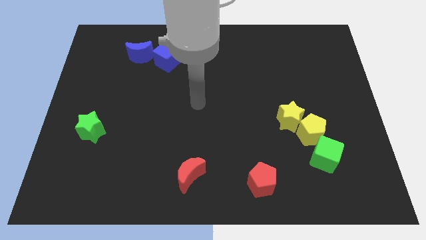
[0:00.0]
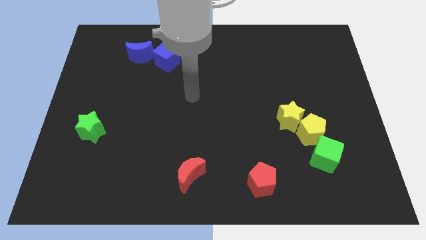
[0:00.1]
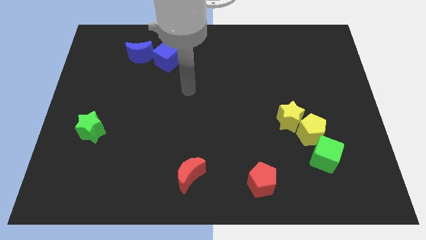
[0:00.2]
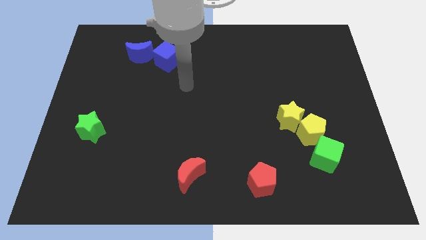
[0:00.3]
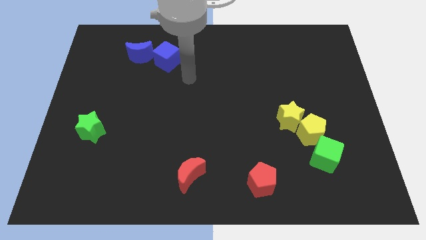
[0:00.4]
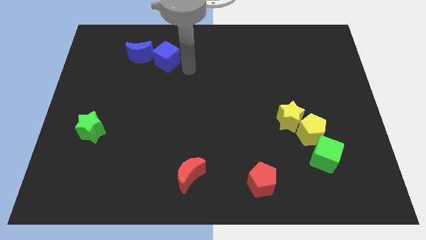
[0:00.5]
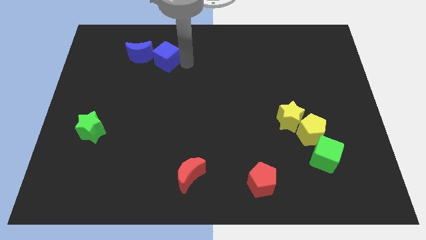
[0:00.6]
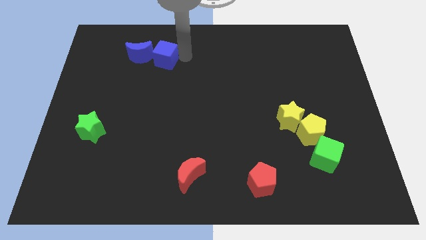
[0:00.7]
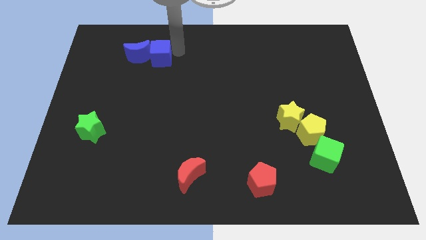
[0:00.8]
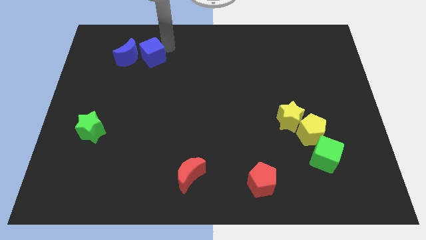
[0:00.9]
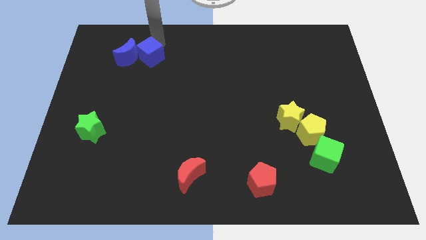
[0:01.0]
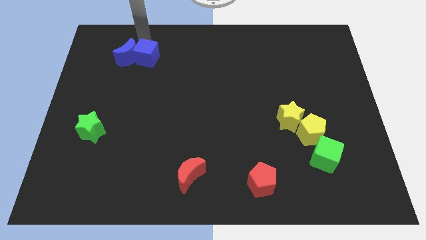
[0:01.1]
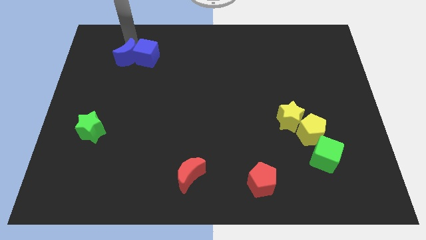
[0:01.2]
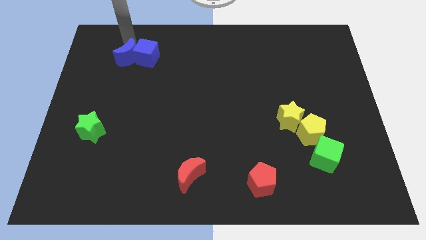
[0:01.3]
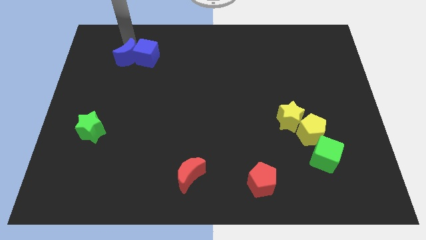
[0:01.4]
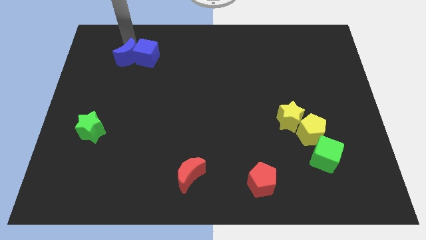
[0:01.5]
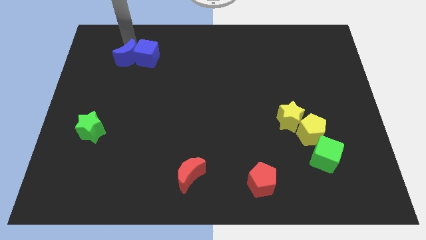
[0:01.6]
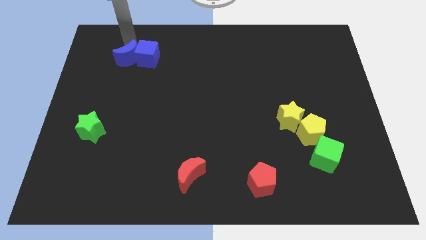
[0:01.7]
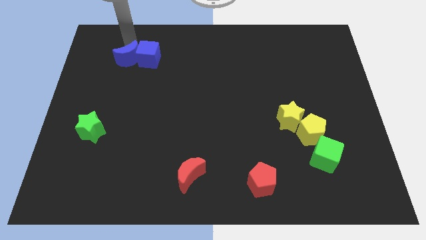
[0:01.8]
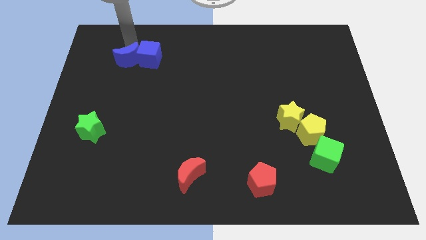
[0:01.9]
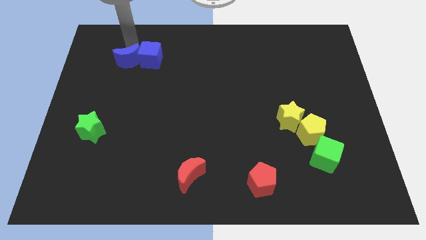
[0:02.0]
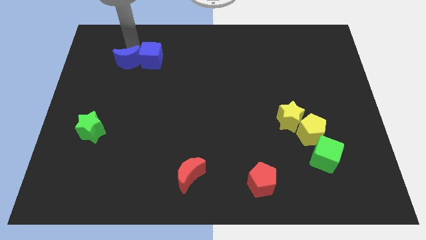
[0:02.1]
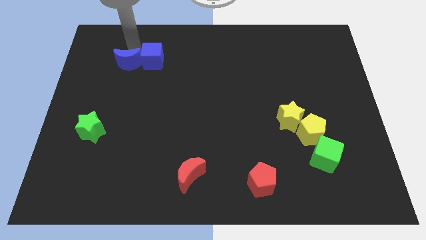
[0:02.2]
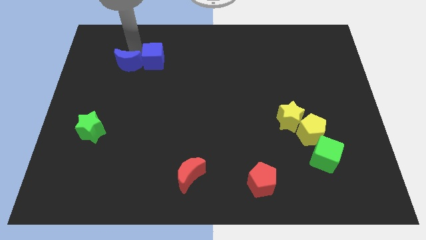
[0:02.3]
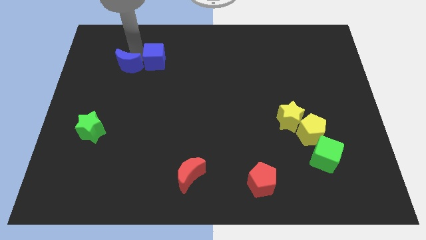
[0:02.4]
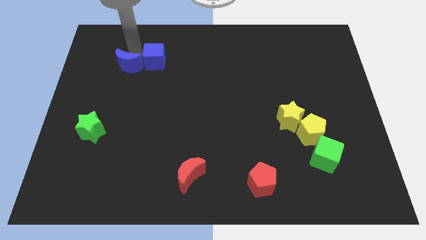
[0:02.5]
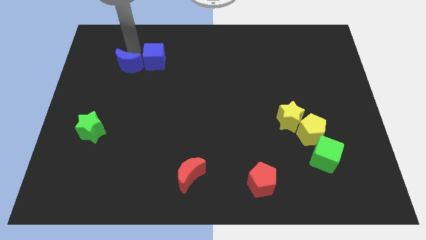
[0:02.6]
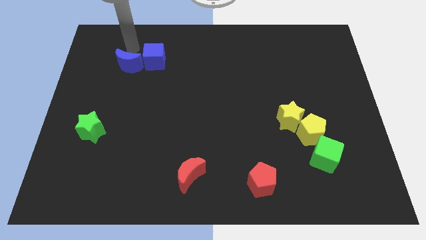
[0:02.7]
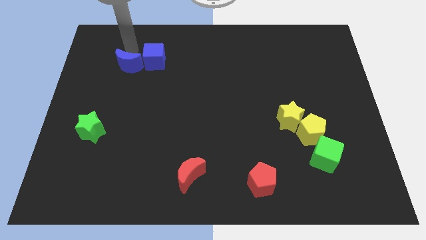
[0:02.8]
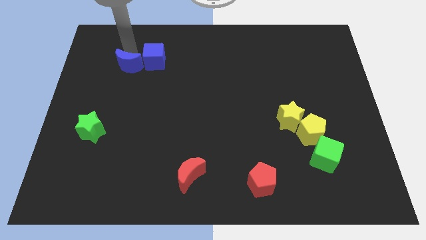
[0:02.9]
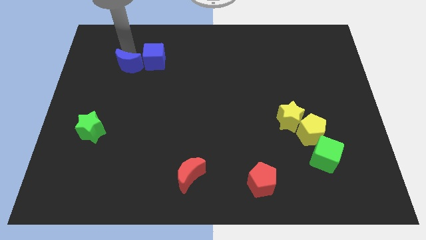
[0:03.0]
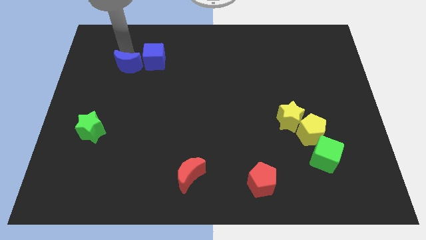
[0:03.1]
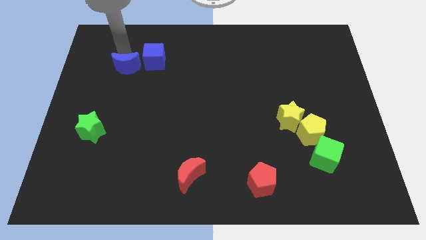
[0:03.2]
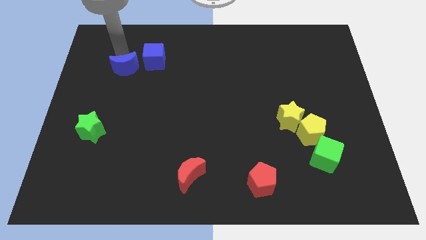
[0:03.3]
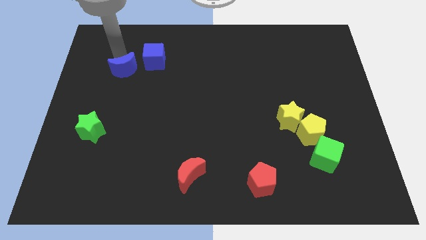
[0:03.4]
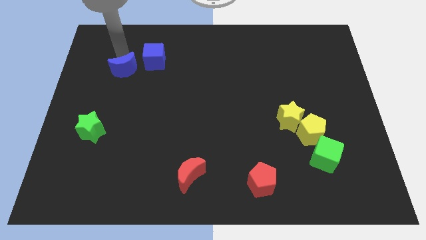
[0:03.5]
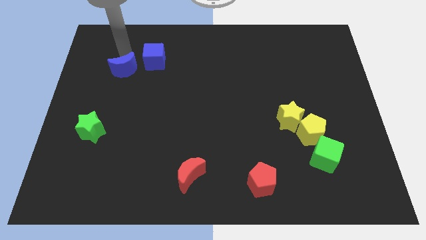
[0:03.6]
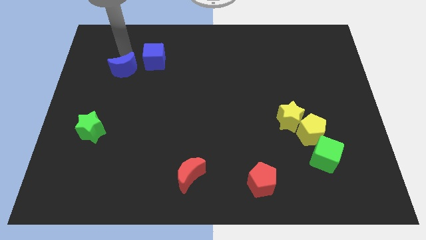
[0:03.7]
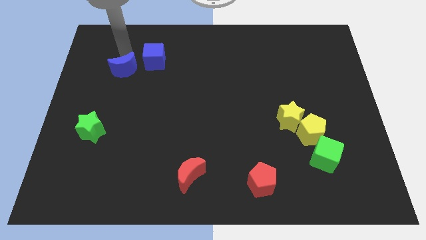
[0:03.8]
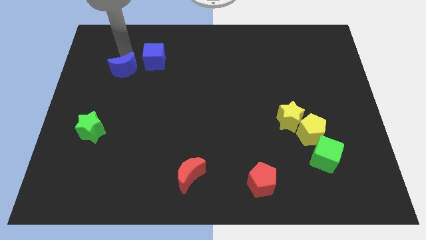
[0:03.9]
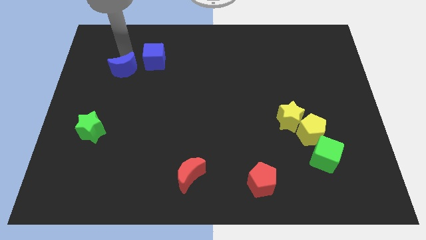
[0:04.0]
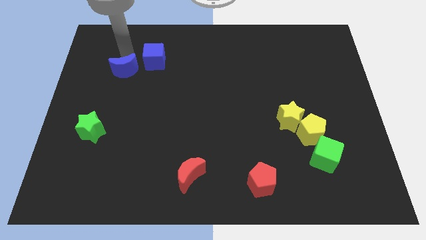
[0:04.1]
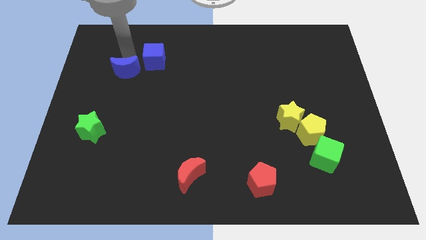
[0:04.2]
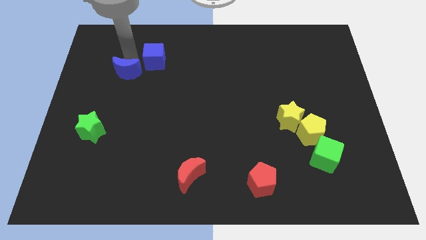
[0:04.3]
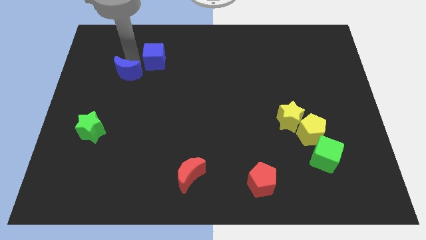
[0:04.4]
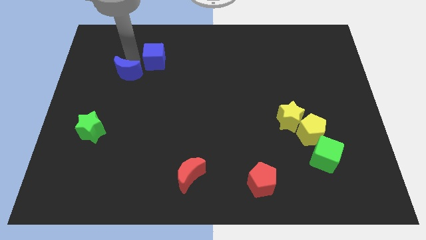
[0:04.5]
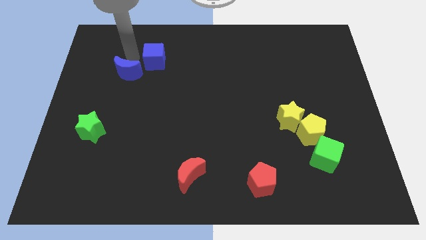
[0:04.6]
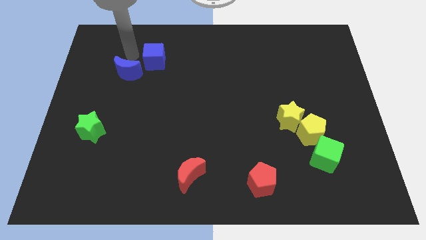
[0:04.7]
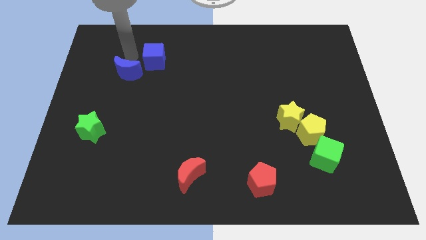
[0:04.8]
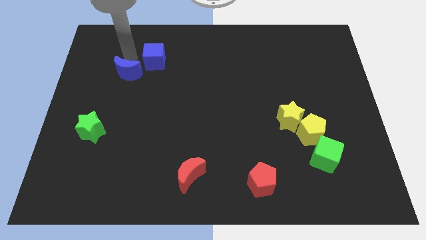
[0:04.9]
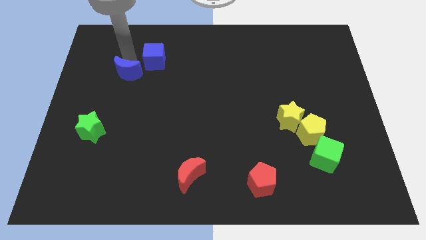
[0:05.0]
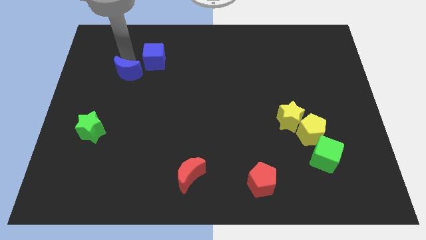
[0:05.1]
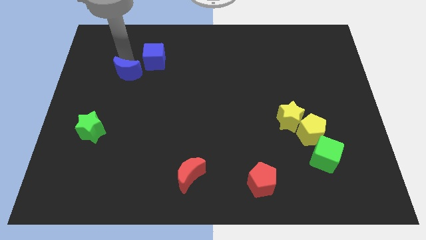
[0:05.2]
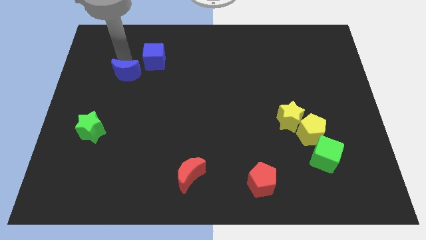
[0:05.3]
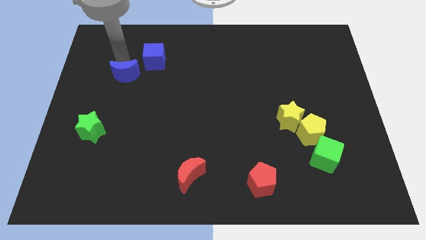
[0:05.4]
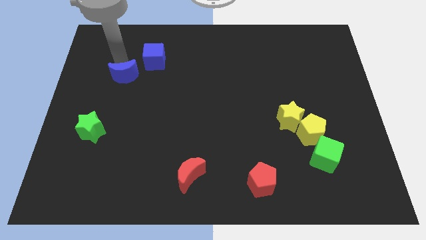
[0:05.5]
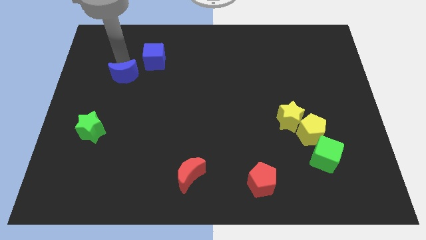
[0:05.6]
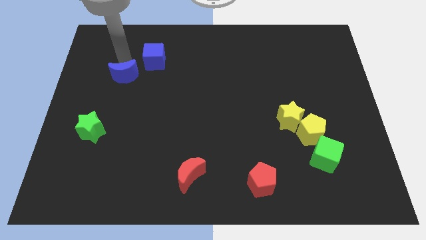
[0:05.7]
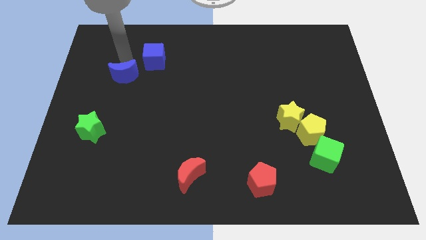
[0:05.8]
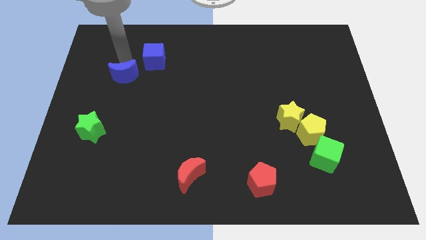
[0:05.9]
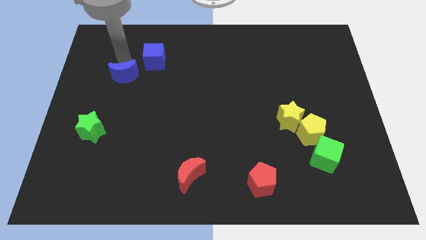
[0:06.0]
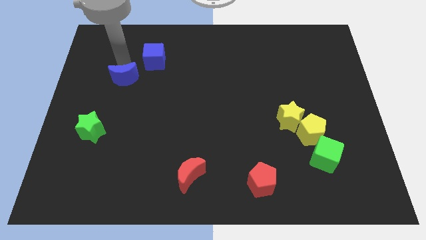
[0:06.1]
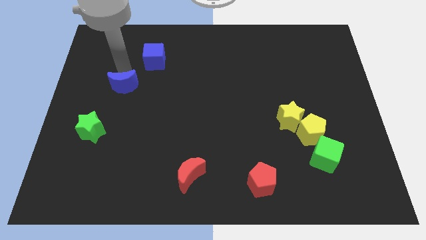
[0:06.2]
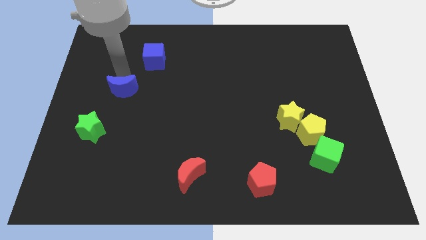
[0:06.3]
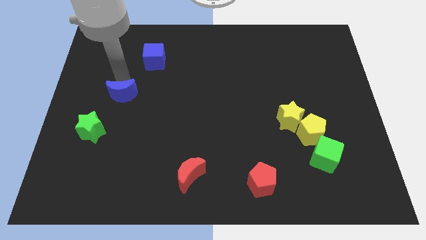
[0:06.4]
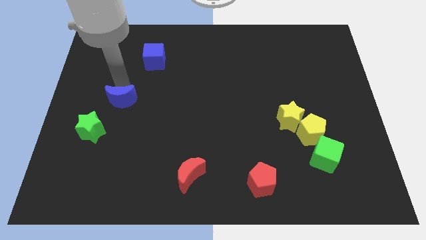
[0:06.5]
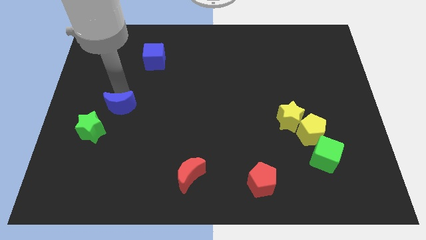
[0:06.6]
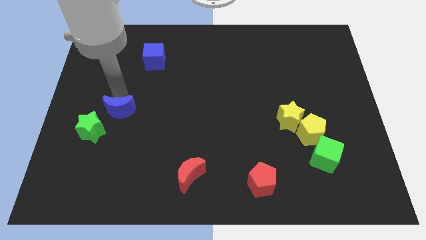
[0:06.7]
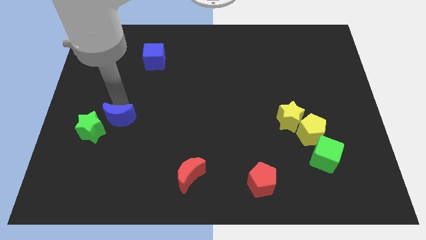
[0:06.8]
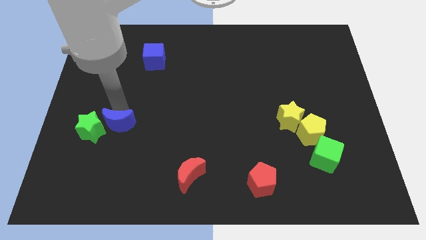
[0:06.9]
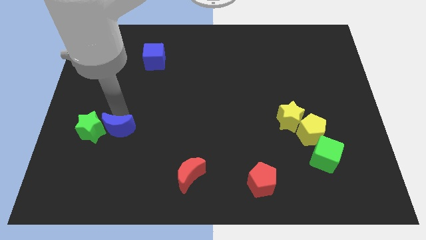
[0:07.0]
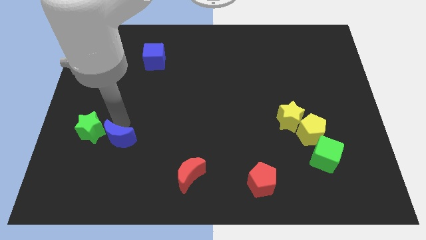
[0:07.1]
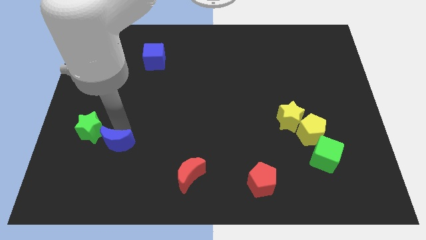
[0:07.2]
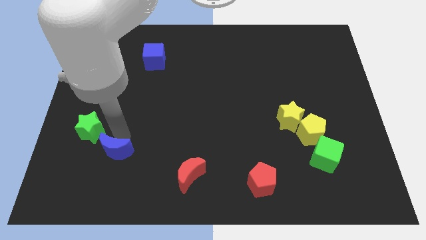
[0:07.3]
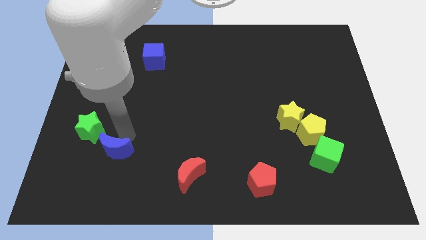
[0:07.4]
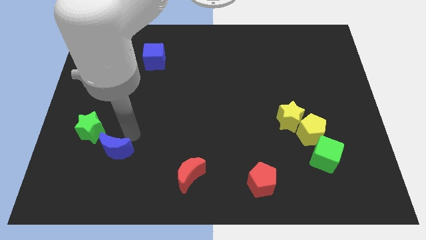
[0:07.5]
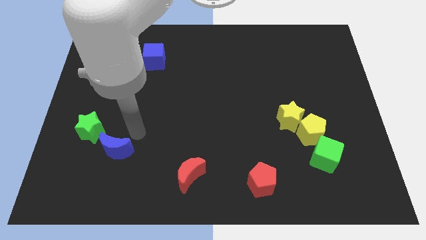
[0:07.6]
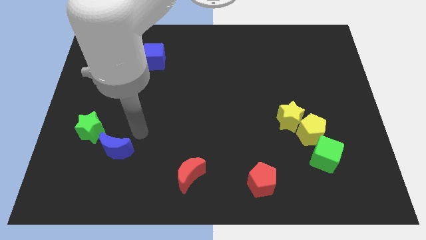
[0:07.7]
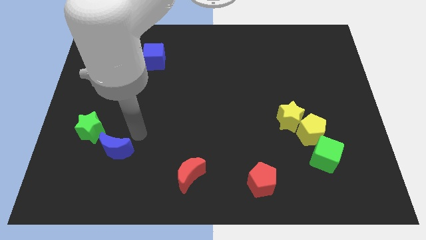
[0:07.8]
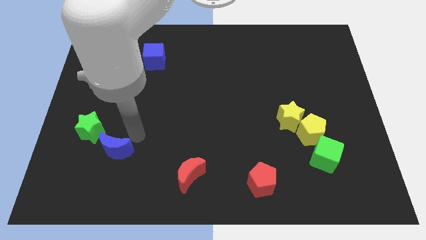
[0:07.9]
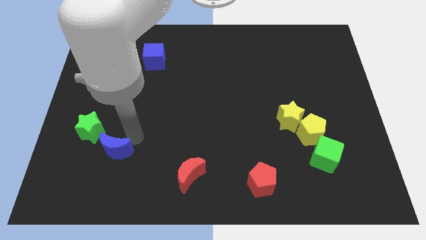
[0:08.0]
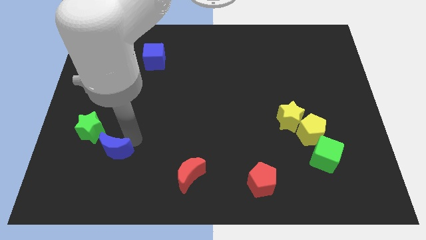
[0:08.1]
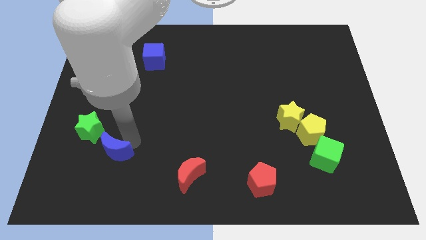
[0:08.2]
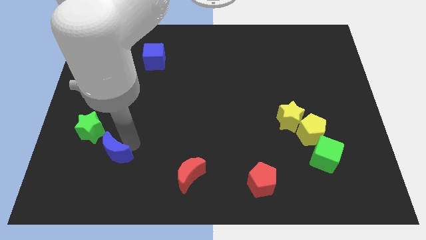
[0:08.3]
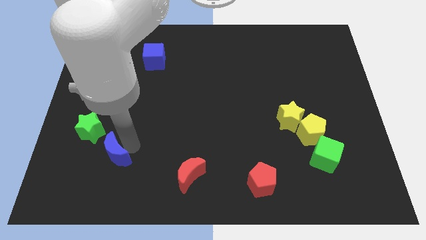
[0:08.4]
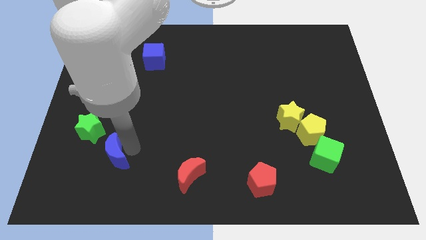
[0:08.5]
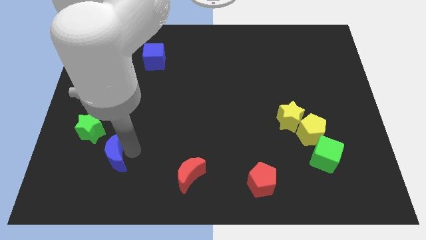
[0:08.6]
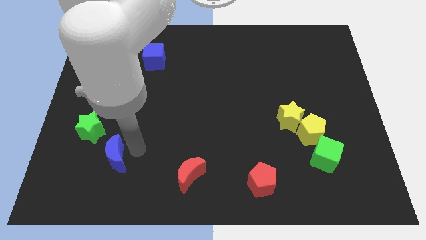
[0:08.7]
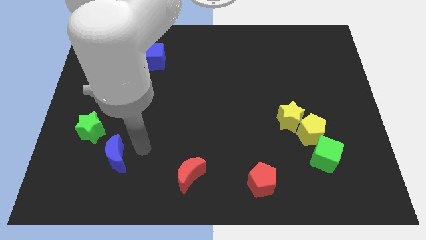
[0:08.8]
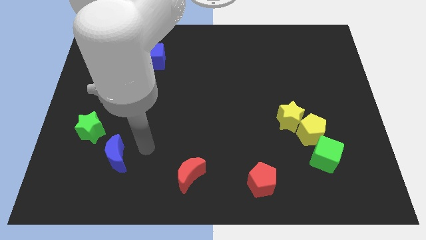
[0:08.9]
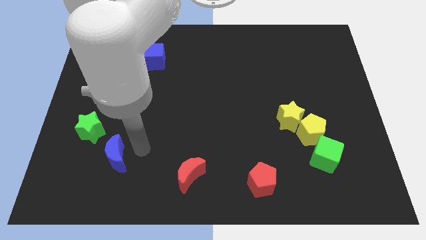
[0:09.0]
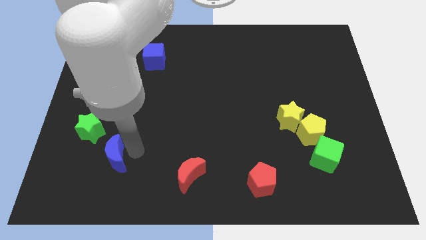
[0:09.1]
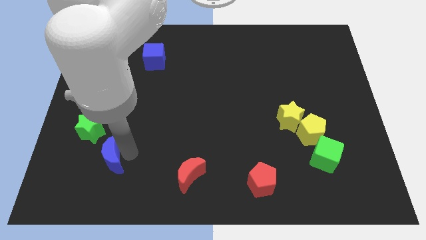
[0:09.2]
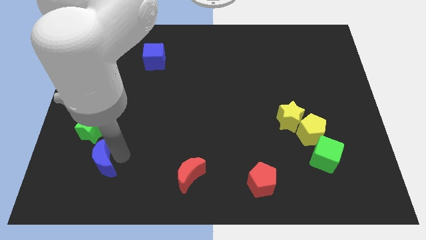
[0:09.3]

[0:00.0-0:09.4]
push the blue moon to the bottom of the green star
